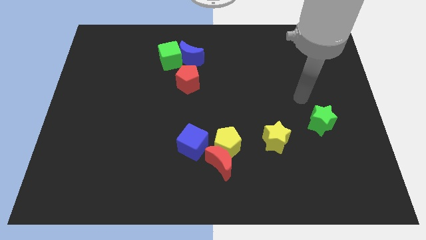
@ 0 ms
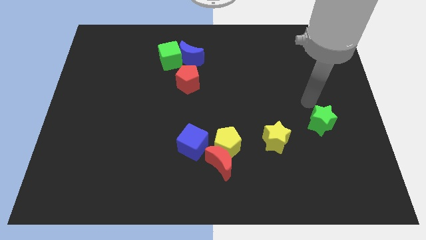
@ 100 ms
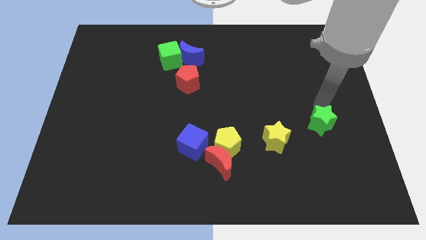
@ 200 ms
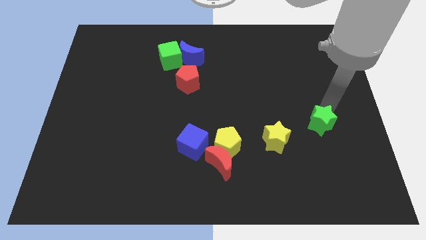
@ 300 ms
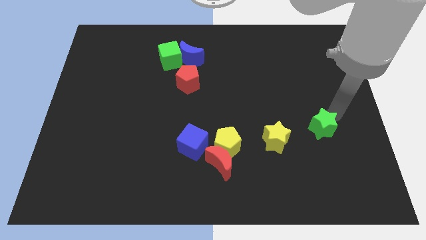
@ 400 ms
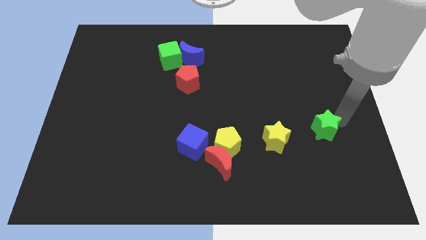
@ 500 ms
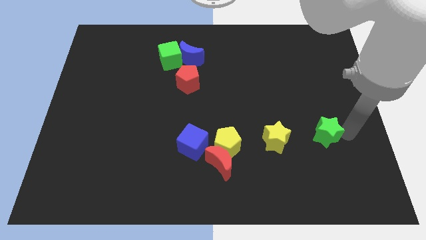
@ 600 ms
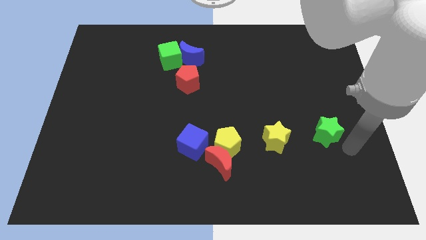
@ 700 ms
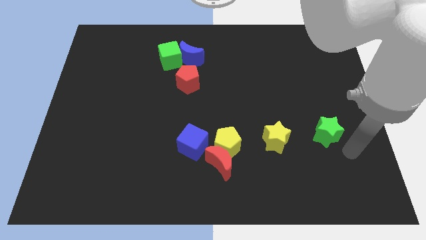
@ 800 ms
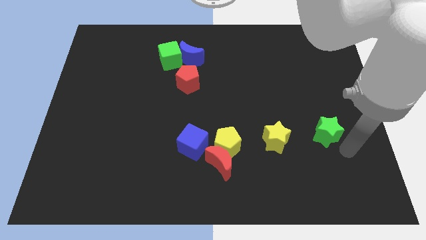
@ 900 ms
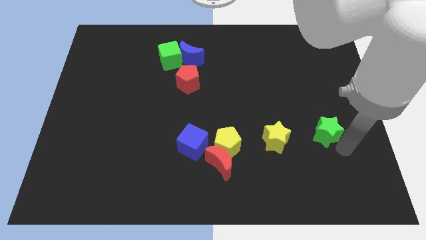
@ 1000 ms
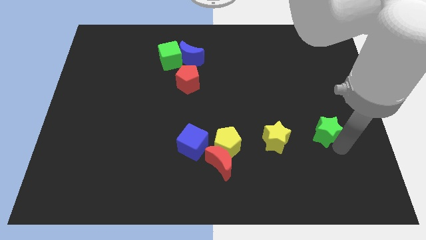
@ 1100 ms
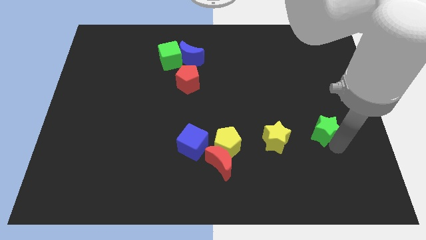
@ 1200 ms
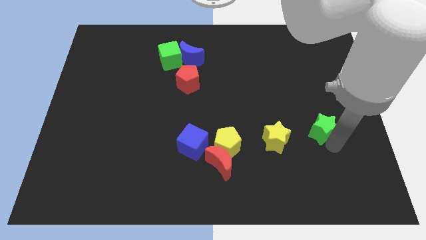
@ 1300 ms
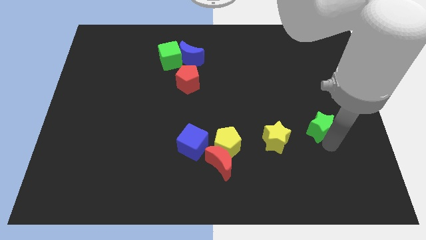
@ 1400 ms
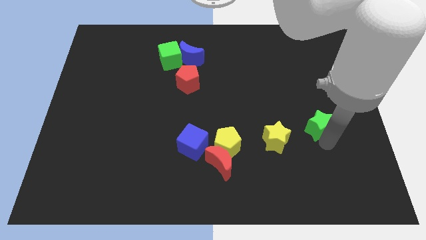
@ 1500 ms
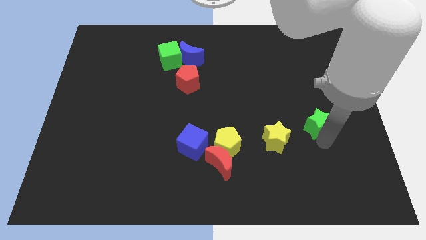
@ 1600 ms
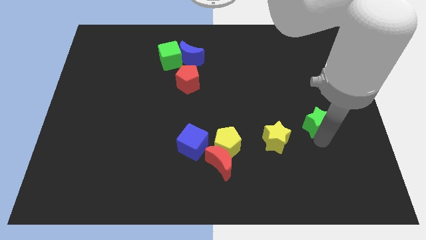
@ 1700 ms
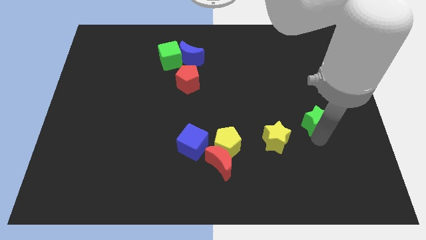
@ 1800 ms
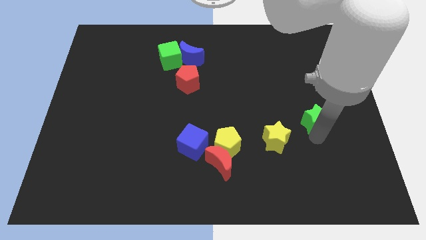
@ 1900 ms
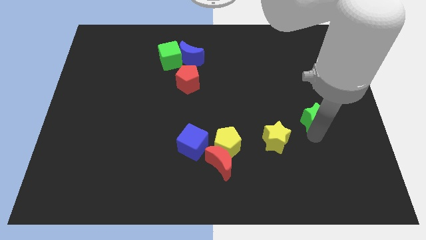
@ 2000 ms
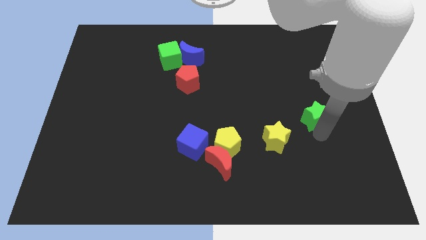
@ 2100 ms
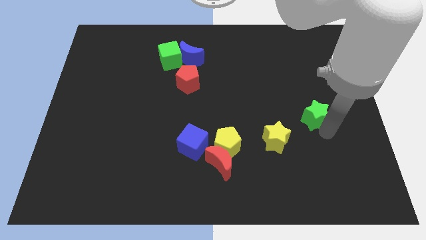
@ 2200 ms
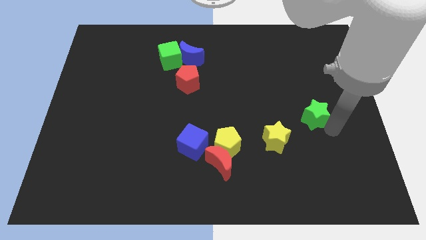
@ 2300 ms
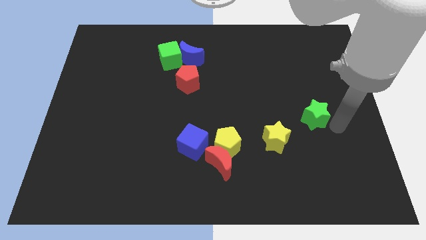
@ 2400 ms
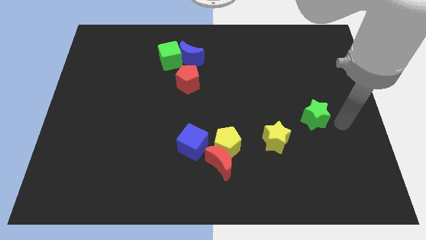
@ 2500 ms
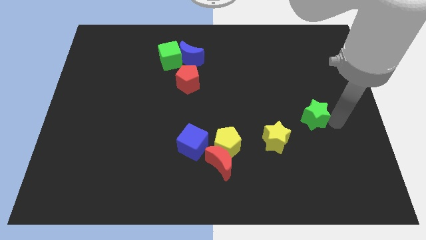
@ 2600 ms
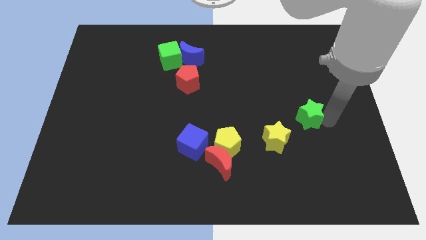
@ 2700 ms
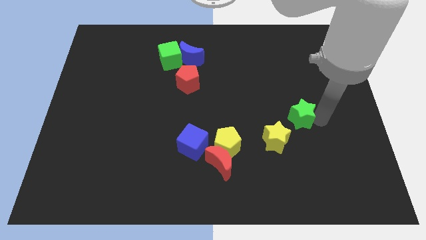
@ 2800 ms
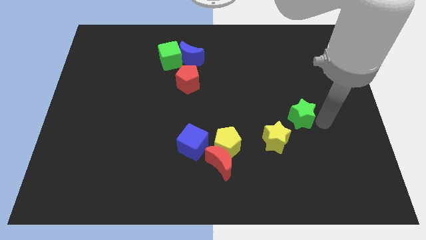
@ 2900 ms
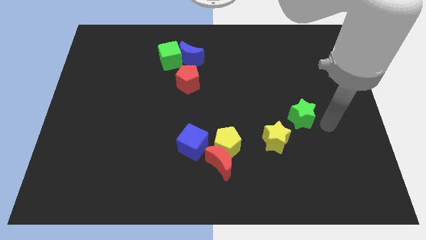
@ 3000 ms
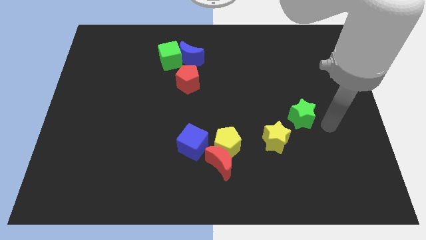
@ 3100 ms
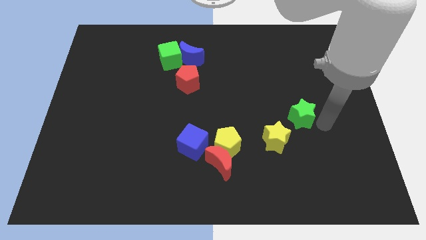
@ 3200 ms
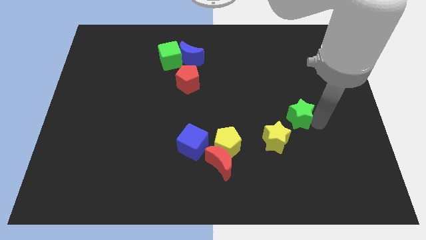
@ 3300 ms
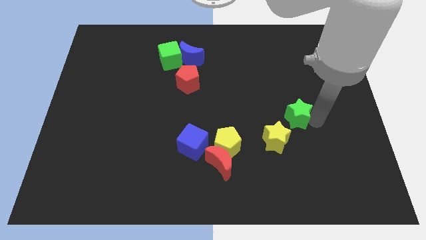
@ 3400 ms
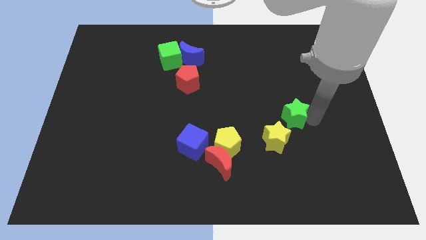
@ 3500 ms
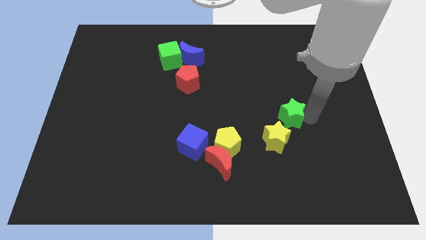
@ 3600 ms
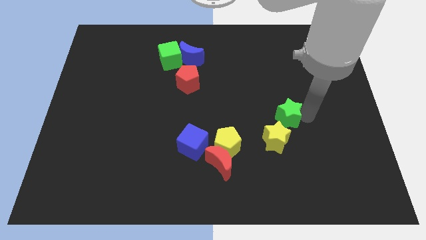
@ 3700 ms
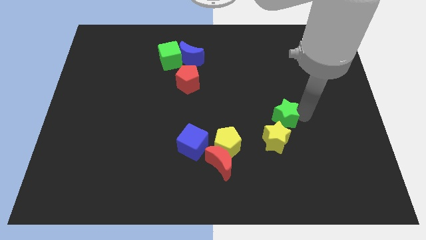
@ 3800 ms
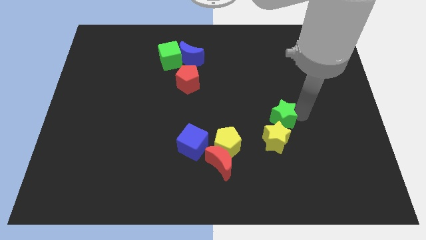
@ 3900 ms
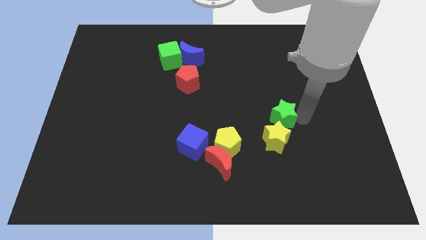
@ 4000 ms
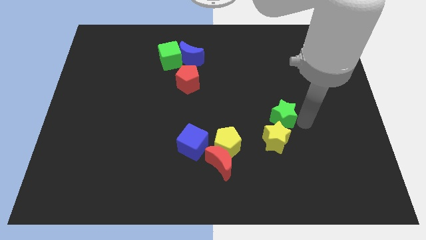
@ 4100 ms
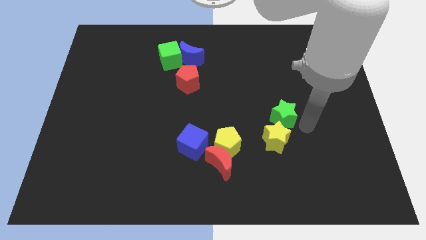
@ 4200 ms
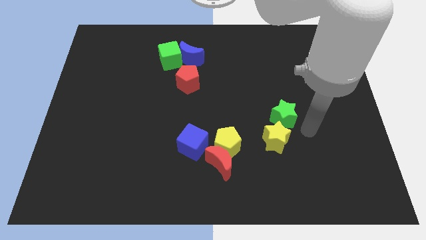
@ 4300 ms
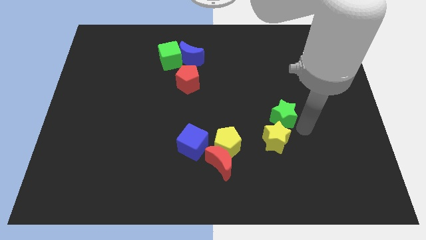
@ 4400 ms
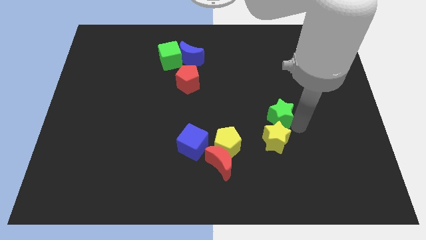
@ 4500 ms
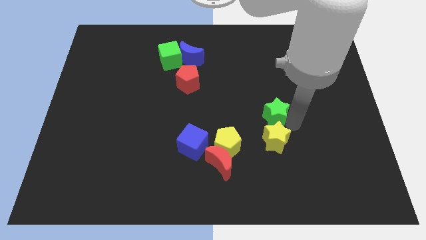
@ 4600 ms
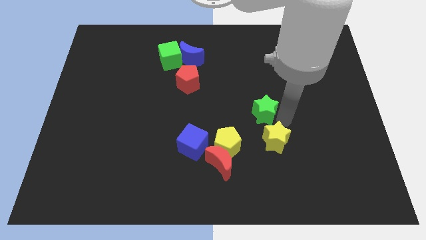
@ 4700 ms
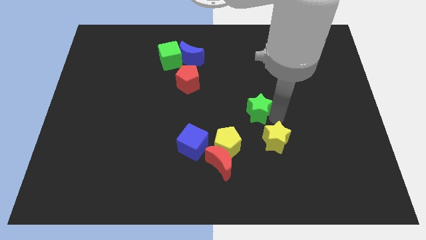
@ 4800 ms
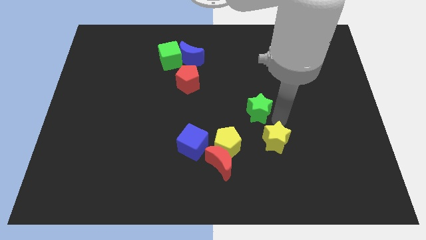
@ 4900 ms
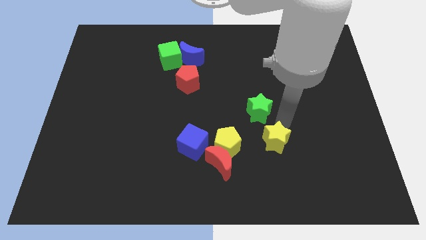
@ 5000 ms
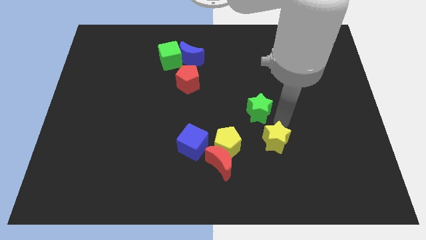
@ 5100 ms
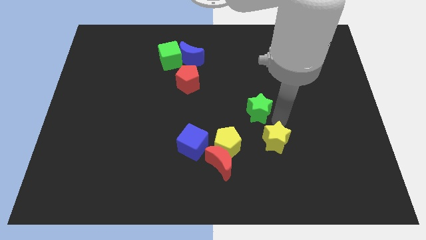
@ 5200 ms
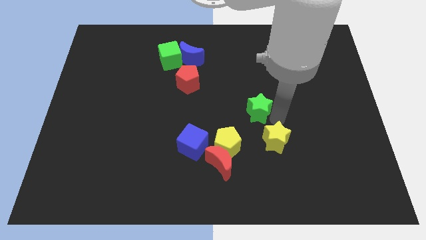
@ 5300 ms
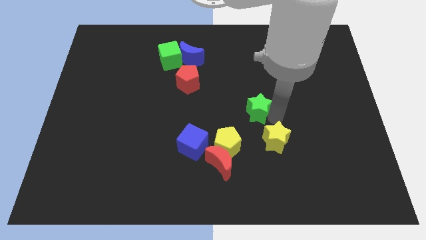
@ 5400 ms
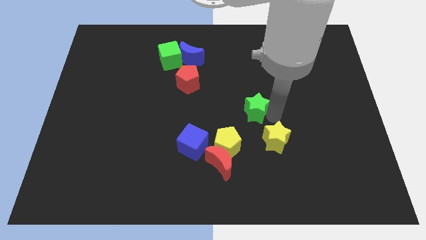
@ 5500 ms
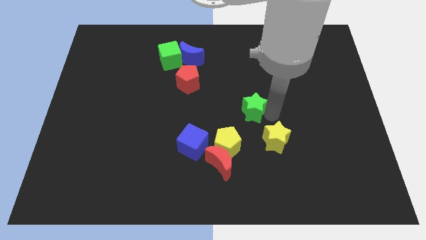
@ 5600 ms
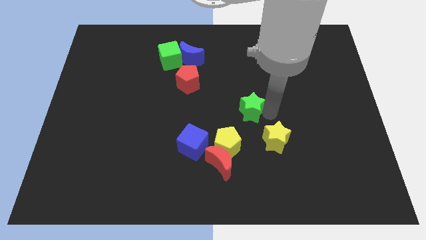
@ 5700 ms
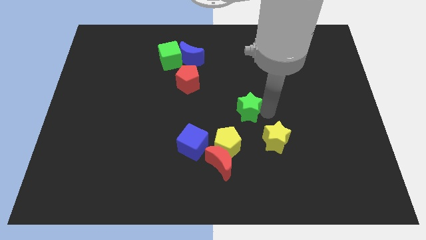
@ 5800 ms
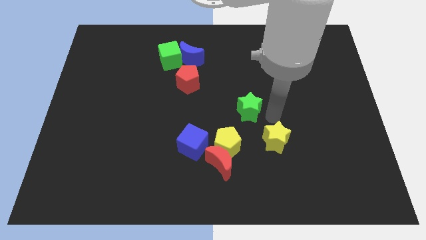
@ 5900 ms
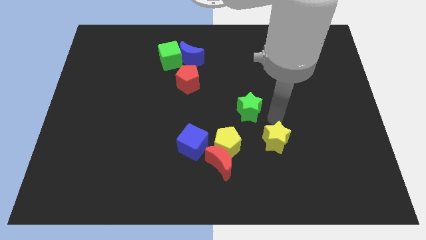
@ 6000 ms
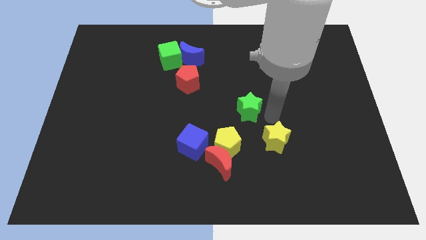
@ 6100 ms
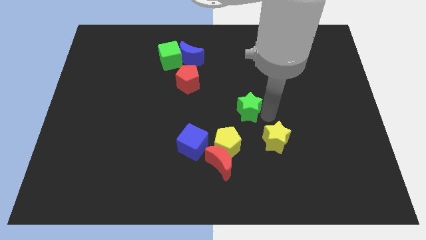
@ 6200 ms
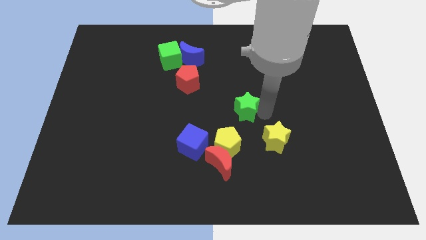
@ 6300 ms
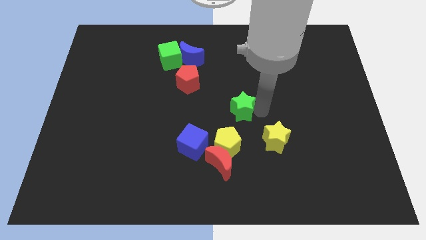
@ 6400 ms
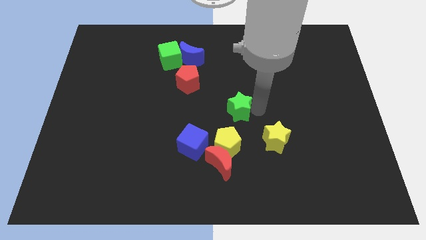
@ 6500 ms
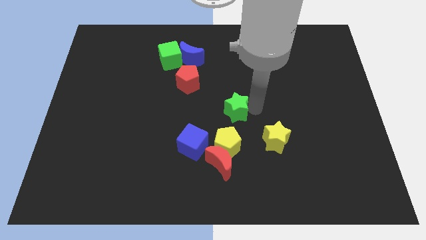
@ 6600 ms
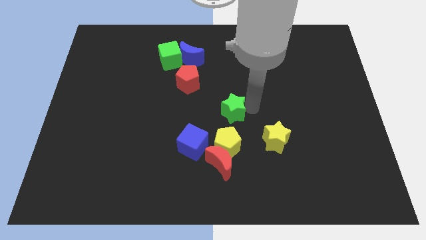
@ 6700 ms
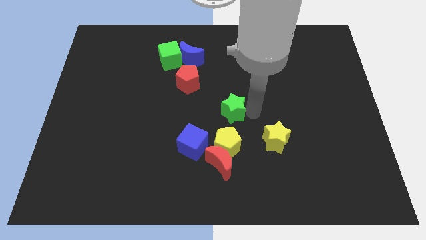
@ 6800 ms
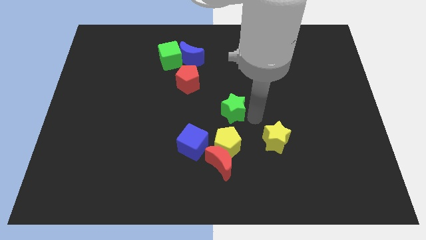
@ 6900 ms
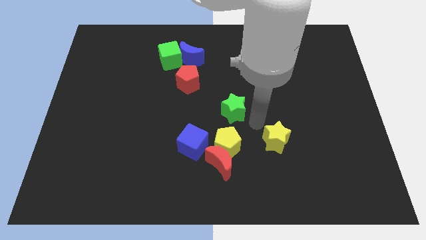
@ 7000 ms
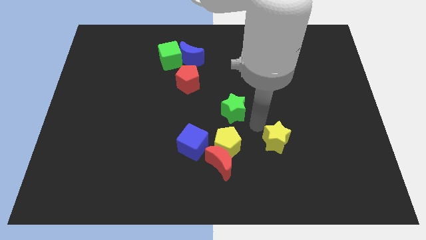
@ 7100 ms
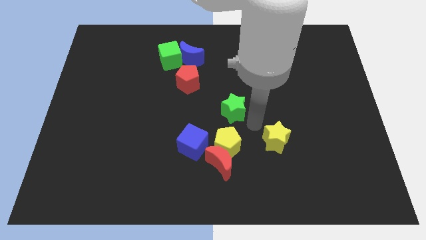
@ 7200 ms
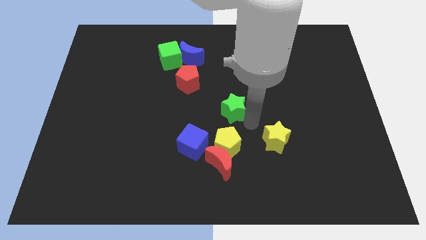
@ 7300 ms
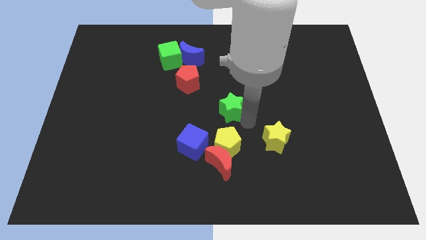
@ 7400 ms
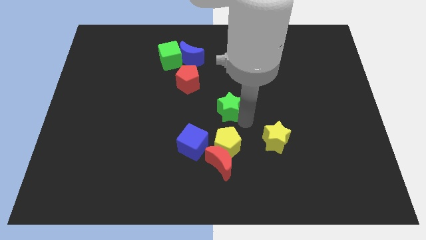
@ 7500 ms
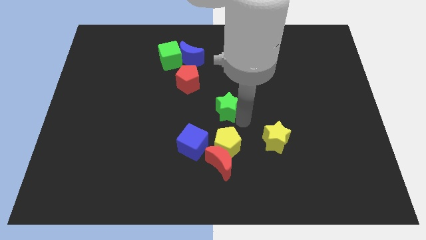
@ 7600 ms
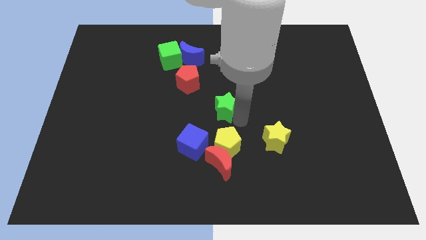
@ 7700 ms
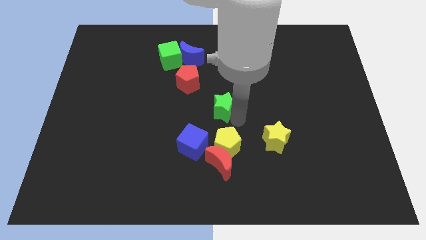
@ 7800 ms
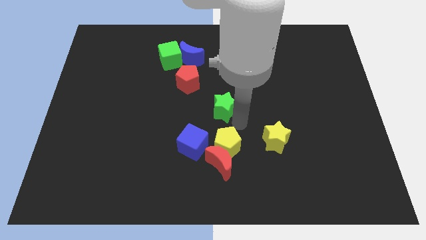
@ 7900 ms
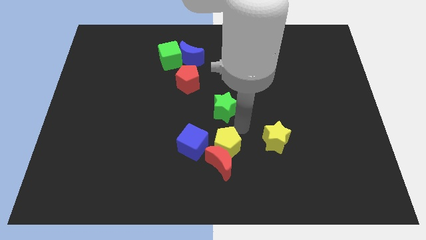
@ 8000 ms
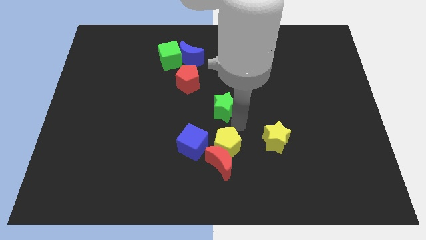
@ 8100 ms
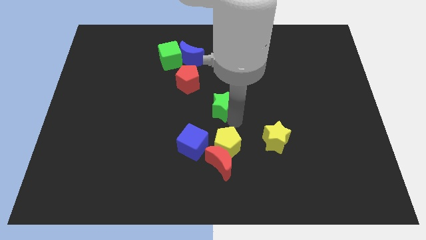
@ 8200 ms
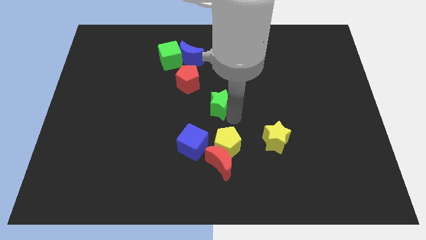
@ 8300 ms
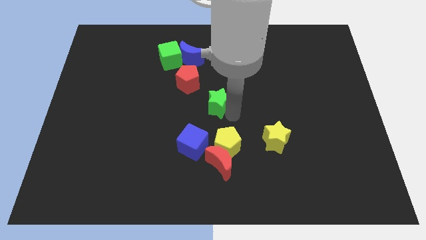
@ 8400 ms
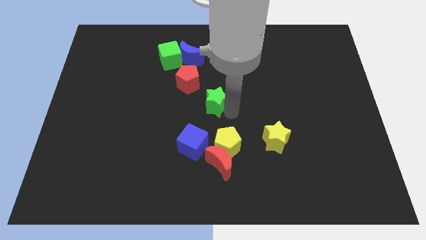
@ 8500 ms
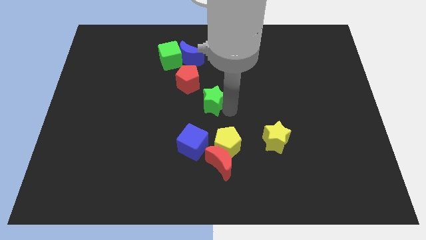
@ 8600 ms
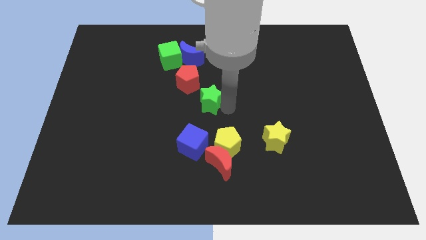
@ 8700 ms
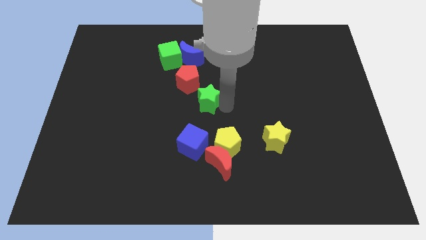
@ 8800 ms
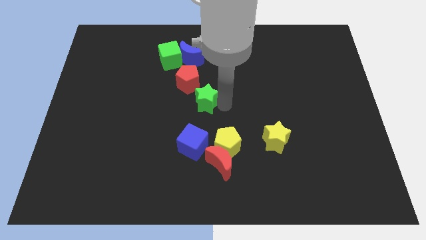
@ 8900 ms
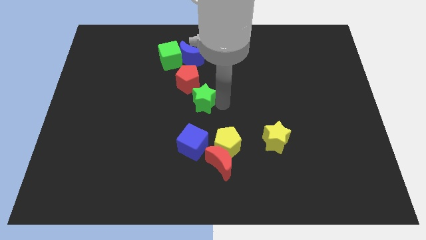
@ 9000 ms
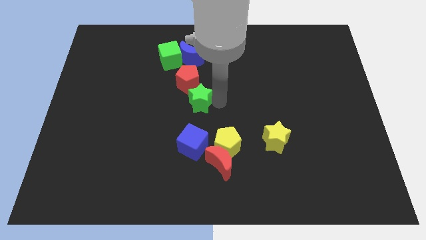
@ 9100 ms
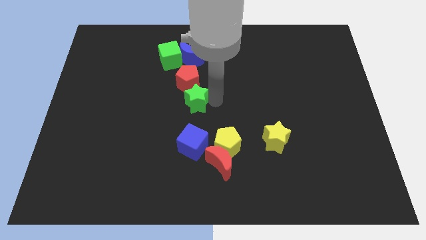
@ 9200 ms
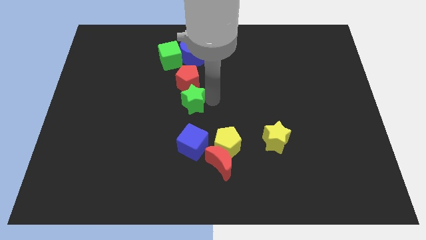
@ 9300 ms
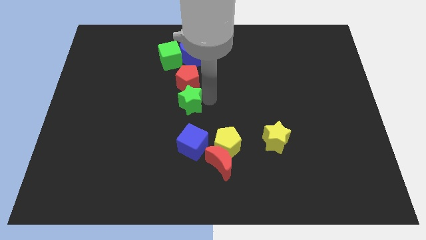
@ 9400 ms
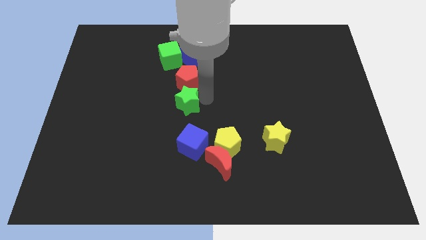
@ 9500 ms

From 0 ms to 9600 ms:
push the green star to the bottom left side of the red pentagon
